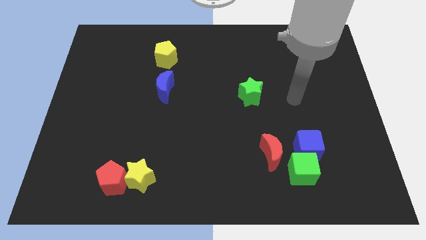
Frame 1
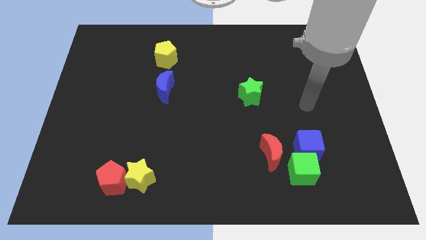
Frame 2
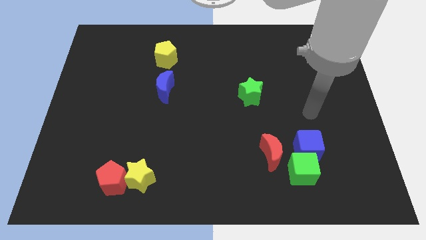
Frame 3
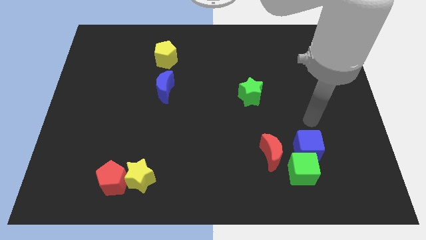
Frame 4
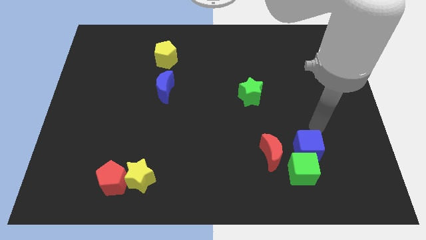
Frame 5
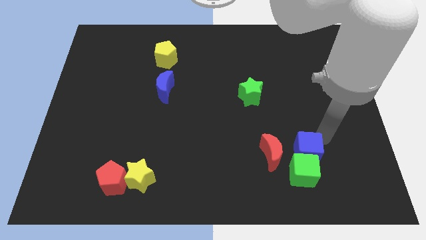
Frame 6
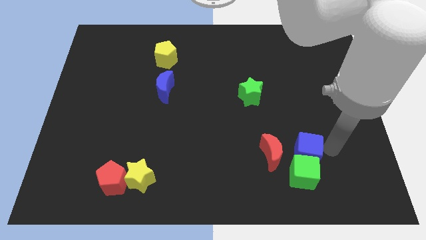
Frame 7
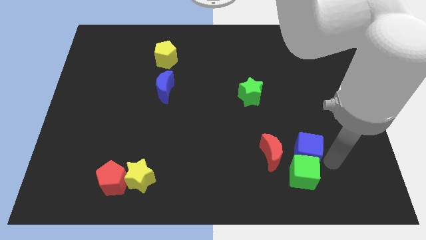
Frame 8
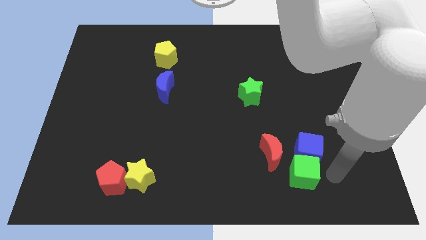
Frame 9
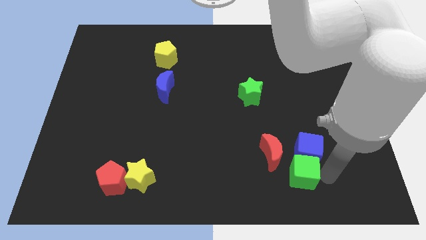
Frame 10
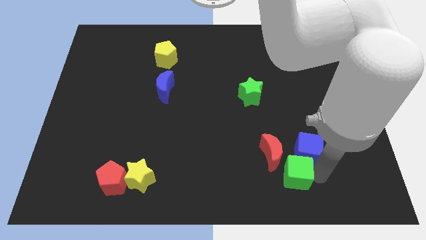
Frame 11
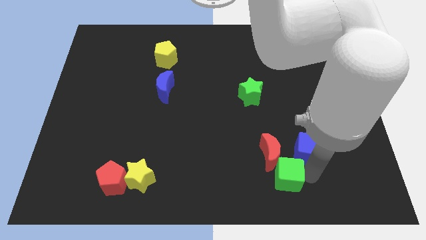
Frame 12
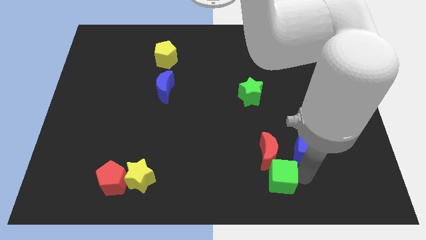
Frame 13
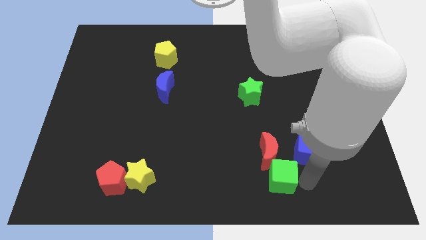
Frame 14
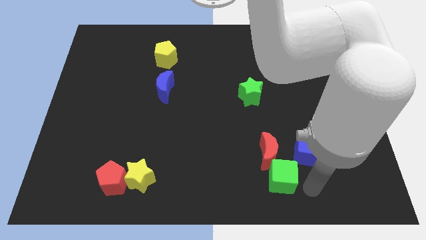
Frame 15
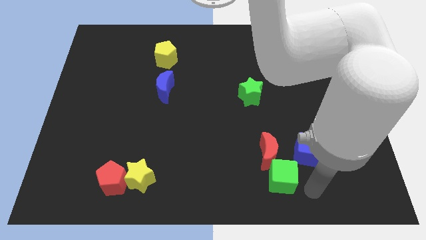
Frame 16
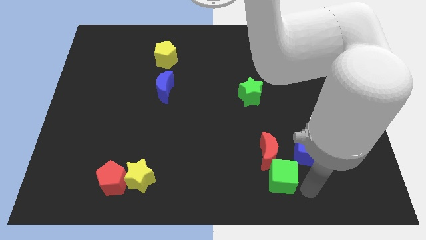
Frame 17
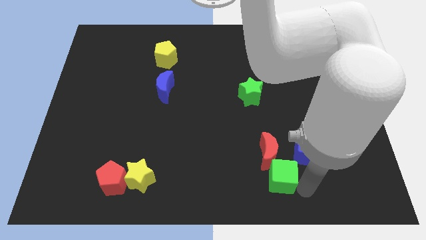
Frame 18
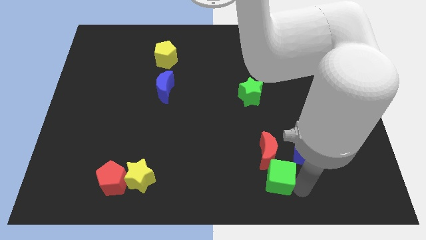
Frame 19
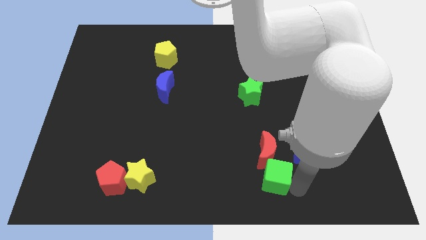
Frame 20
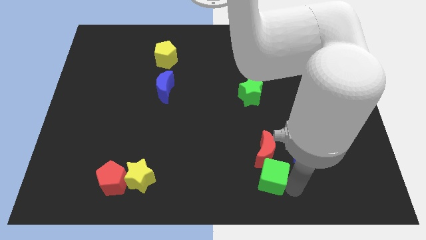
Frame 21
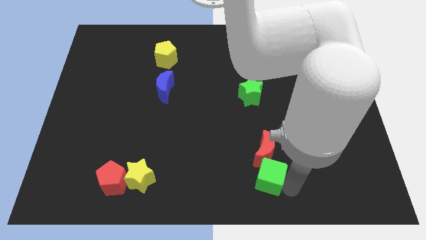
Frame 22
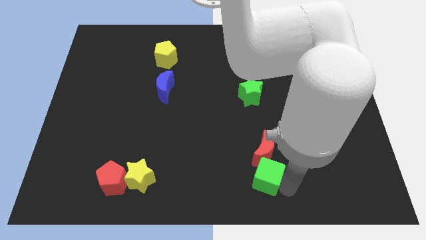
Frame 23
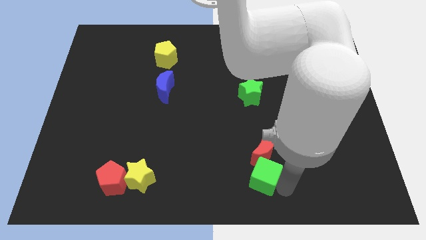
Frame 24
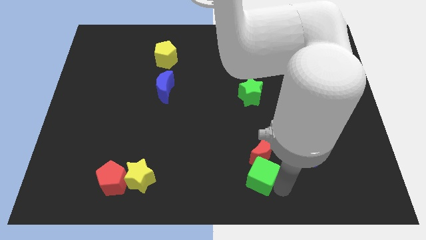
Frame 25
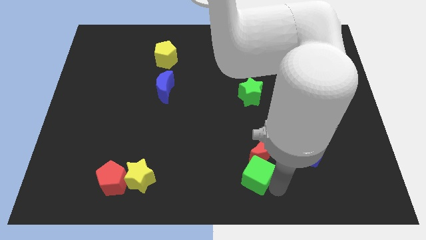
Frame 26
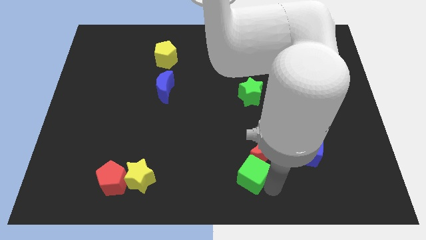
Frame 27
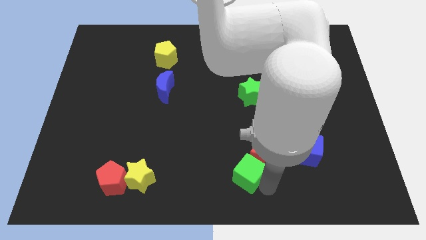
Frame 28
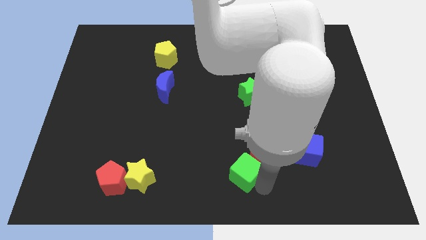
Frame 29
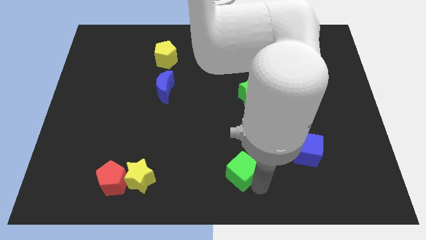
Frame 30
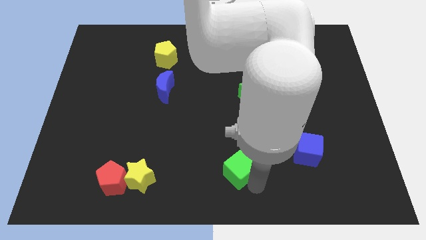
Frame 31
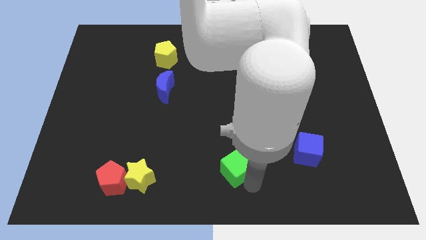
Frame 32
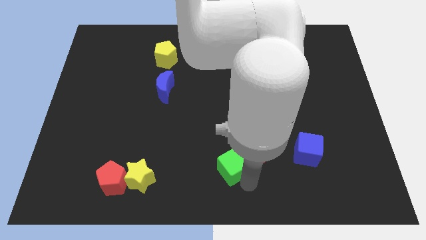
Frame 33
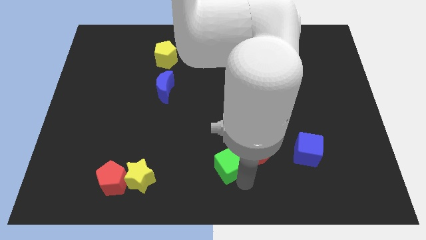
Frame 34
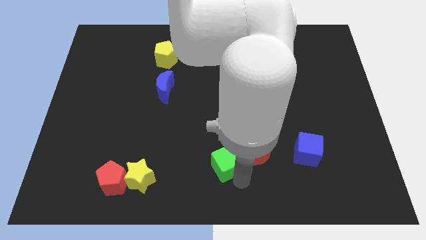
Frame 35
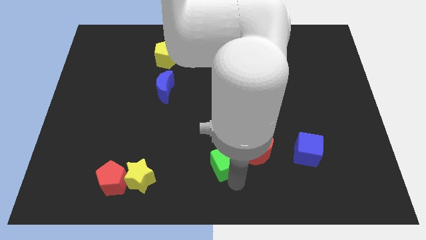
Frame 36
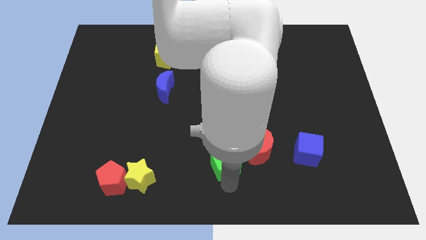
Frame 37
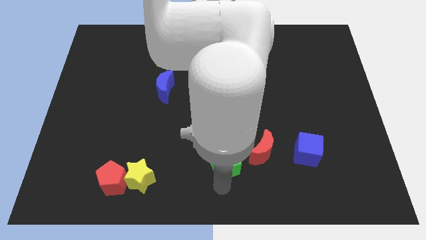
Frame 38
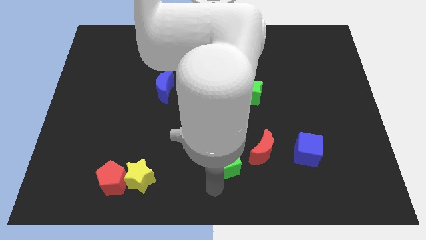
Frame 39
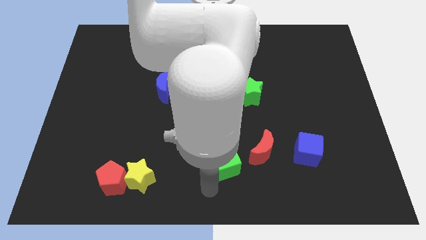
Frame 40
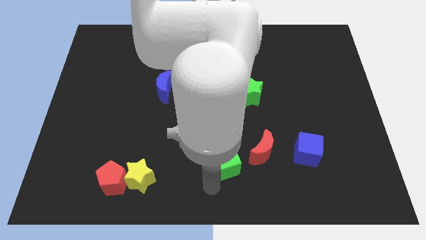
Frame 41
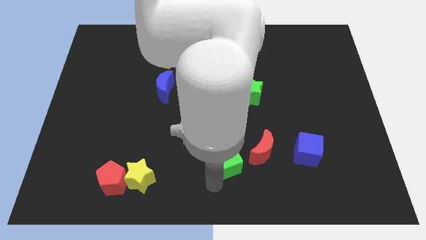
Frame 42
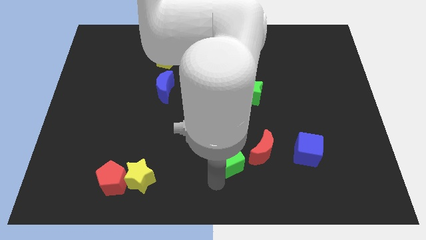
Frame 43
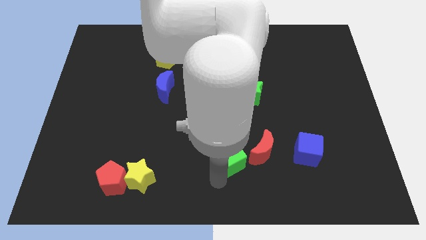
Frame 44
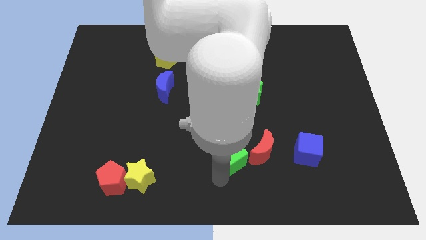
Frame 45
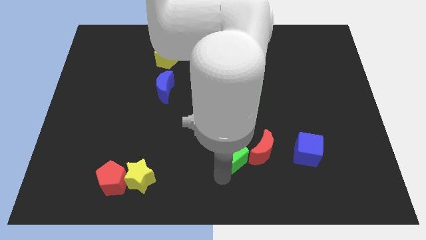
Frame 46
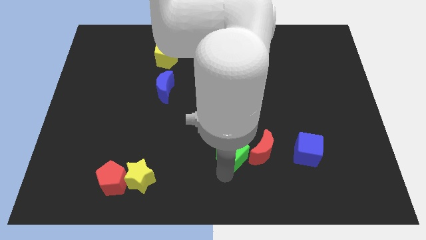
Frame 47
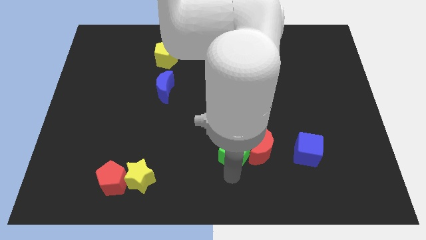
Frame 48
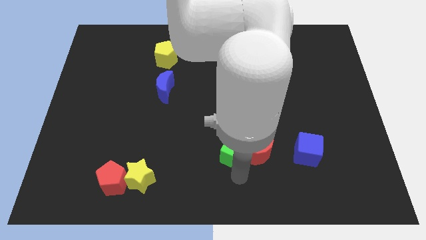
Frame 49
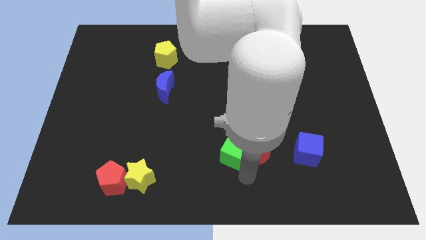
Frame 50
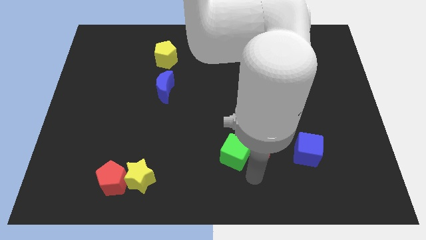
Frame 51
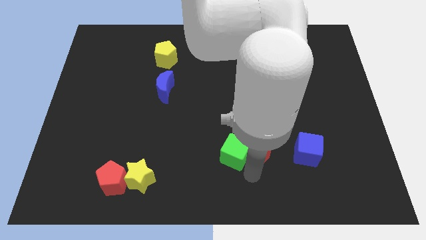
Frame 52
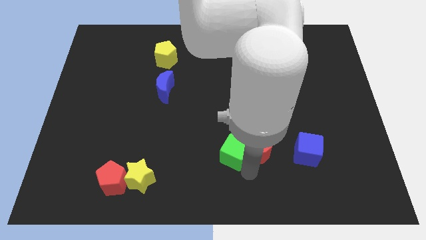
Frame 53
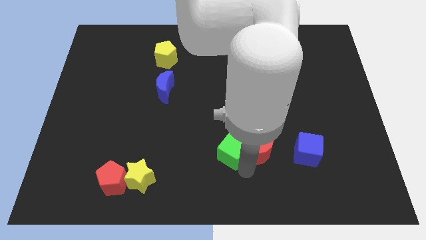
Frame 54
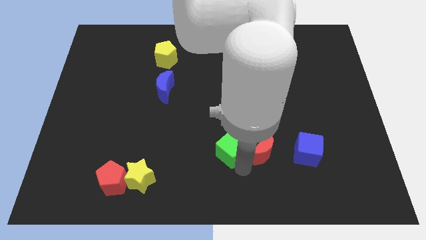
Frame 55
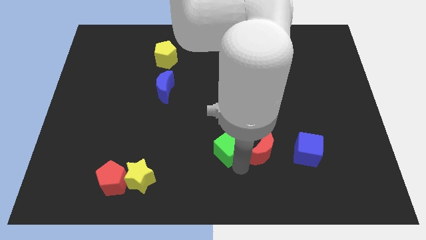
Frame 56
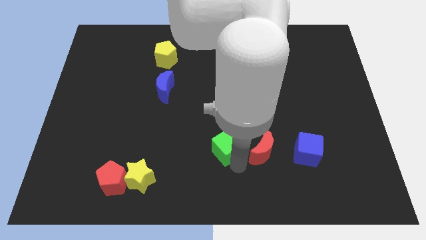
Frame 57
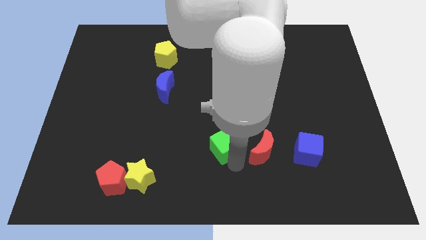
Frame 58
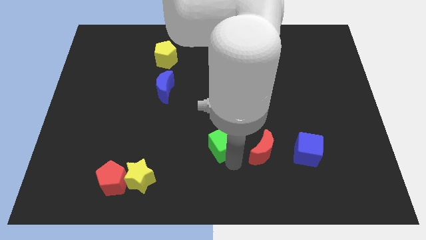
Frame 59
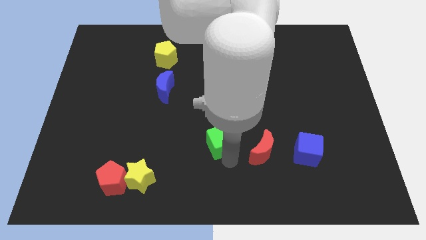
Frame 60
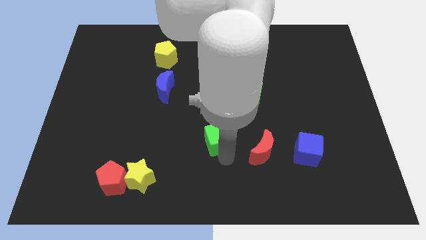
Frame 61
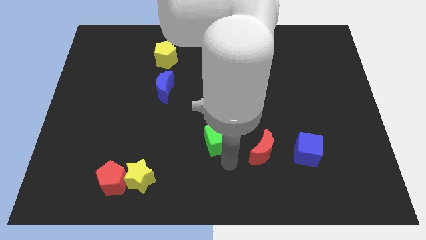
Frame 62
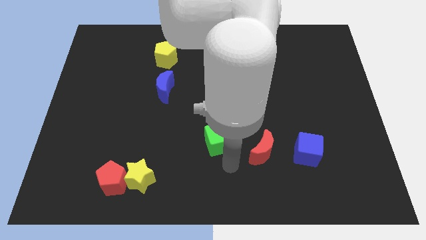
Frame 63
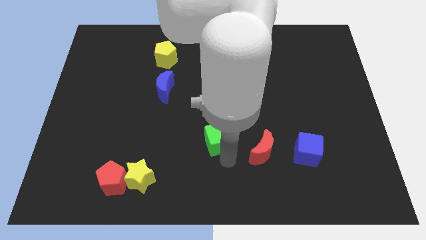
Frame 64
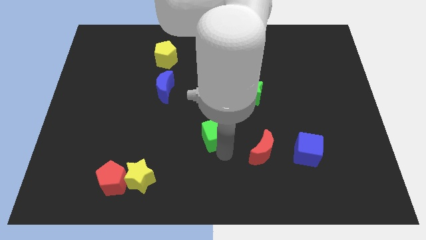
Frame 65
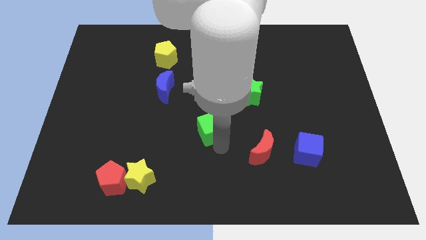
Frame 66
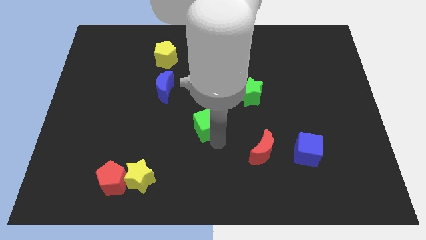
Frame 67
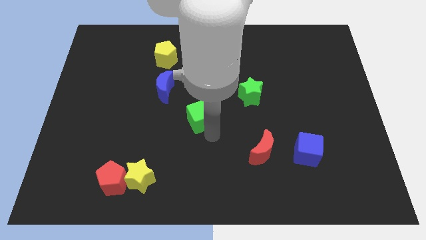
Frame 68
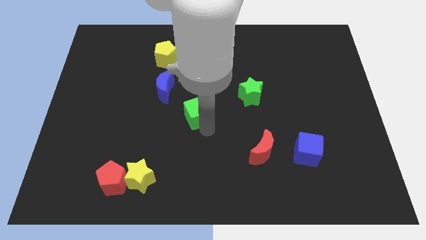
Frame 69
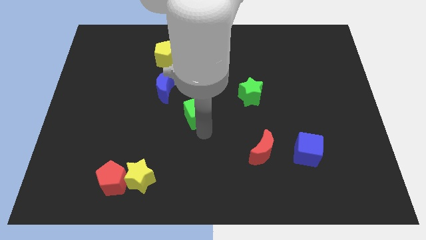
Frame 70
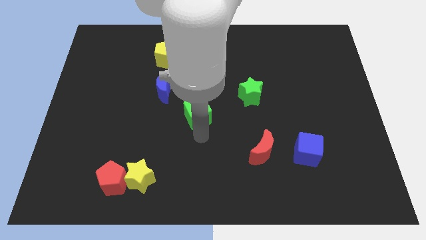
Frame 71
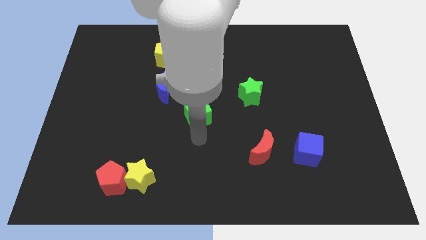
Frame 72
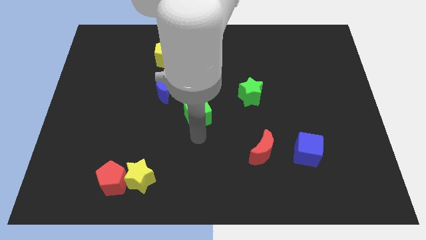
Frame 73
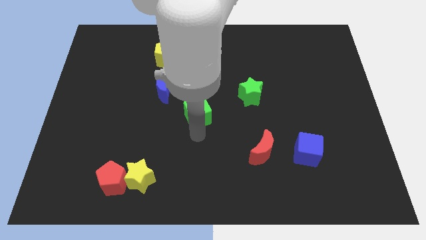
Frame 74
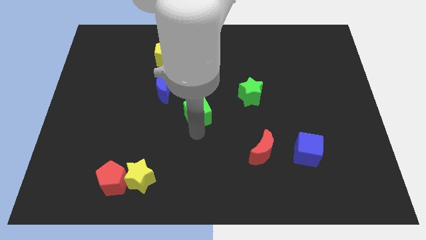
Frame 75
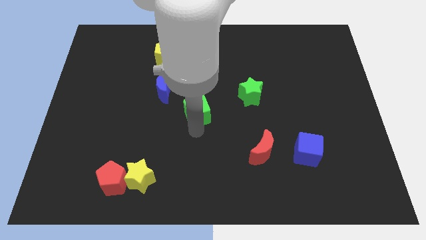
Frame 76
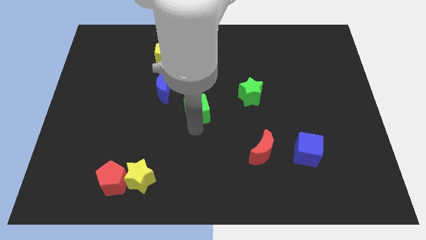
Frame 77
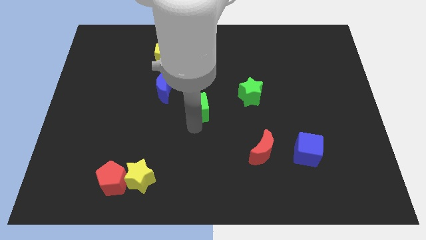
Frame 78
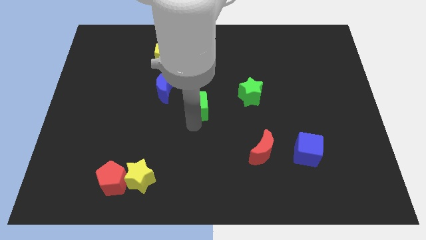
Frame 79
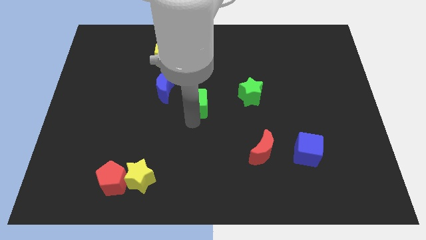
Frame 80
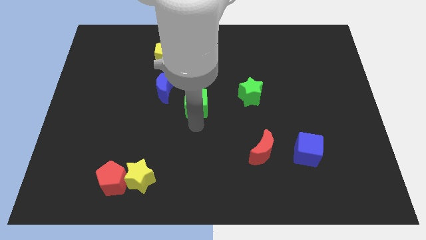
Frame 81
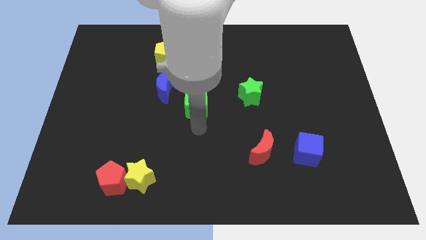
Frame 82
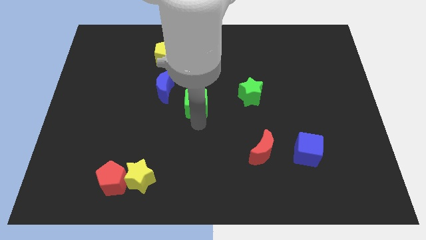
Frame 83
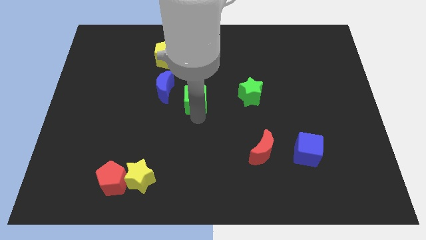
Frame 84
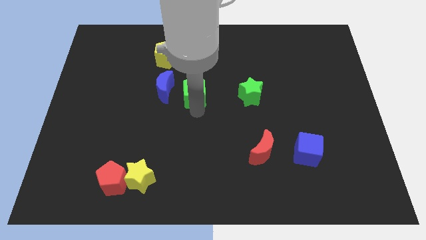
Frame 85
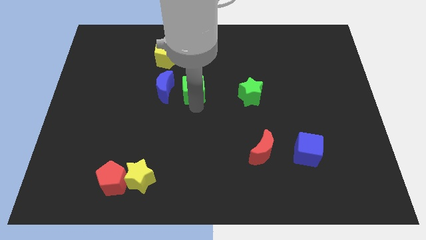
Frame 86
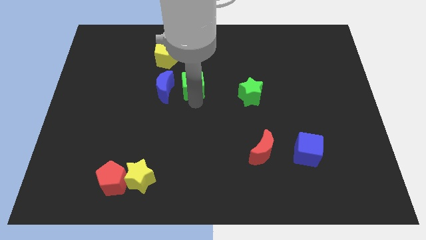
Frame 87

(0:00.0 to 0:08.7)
put the green cube diagonally up and to the right of the blue moon
